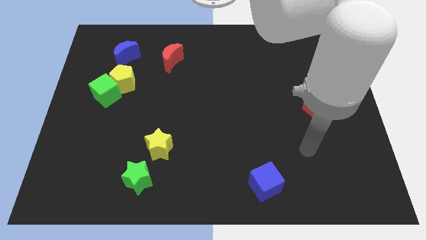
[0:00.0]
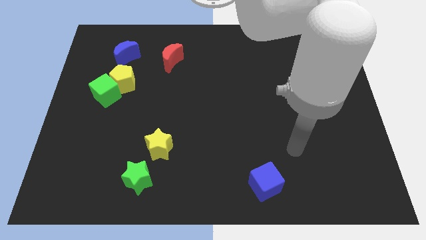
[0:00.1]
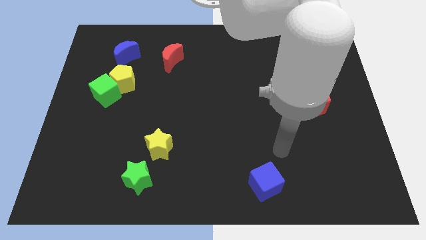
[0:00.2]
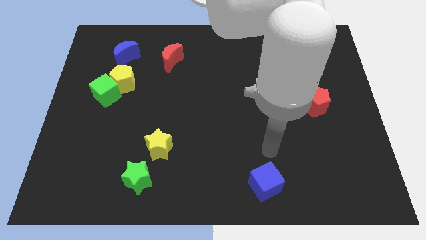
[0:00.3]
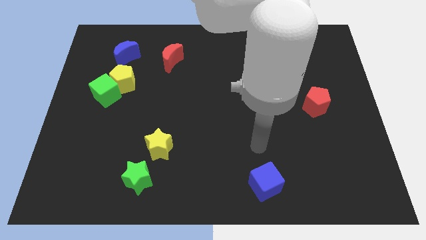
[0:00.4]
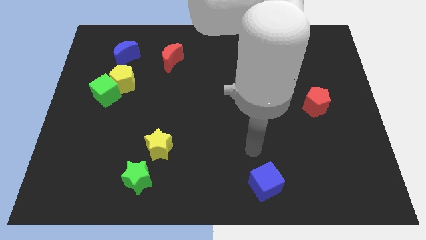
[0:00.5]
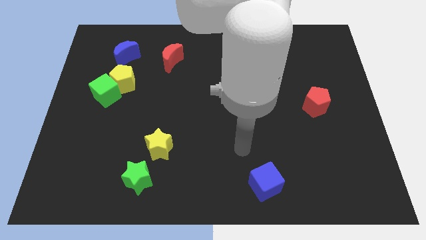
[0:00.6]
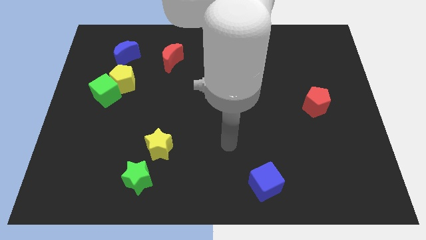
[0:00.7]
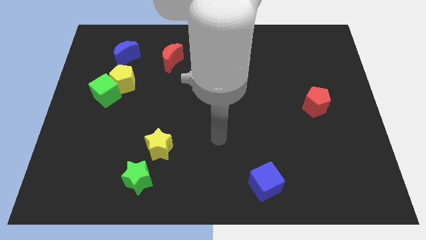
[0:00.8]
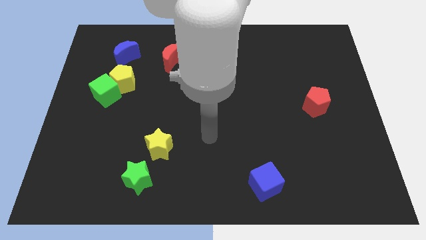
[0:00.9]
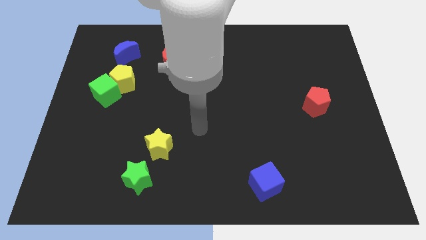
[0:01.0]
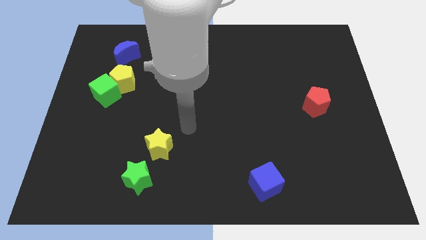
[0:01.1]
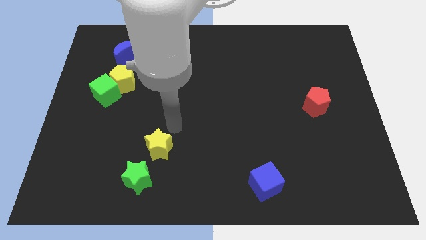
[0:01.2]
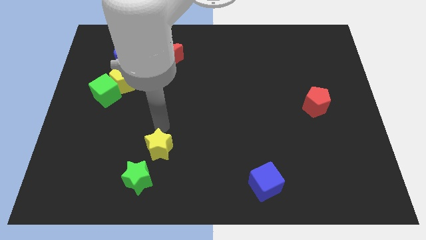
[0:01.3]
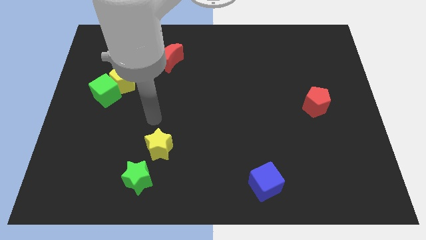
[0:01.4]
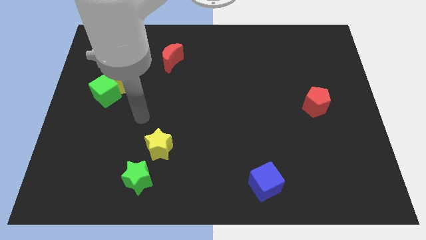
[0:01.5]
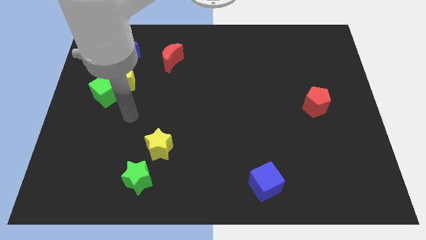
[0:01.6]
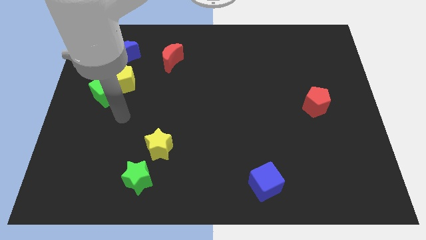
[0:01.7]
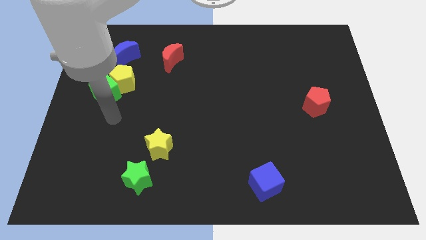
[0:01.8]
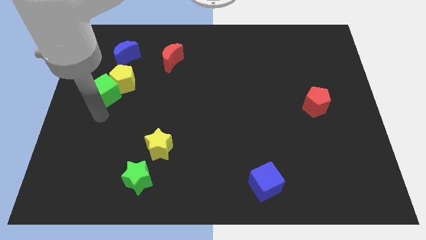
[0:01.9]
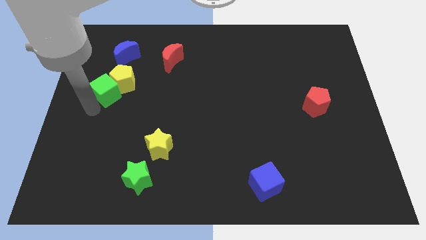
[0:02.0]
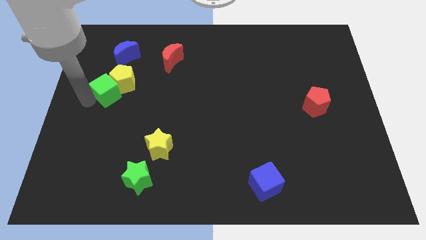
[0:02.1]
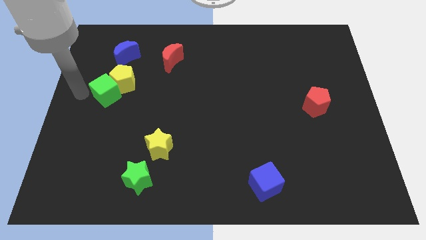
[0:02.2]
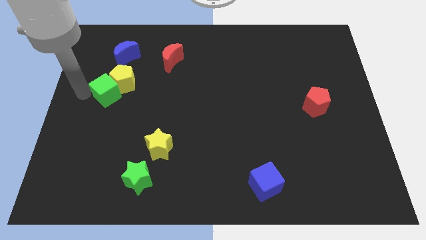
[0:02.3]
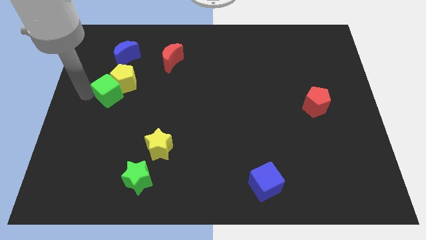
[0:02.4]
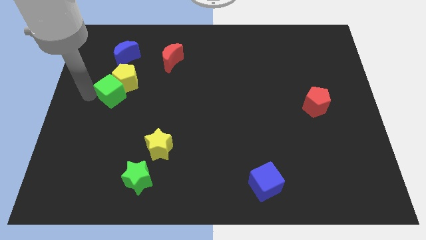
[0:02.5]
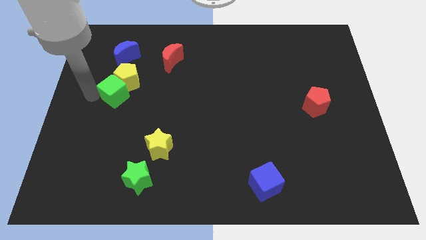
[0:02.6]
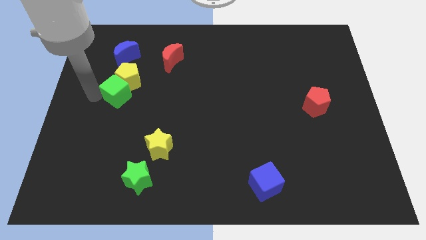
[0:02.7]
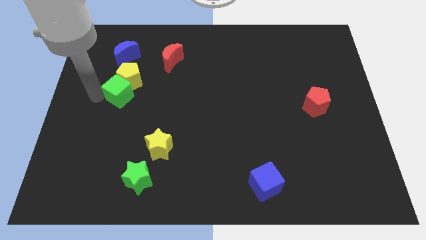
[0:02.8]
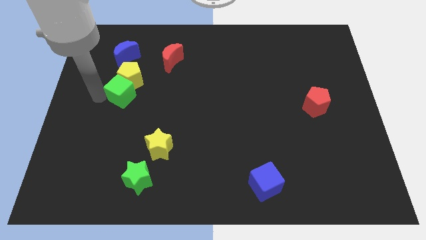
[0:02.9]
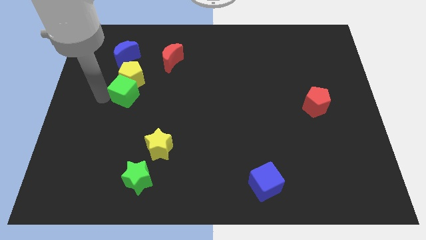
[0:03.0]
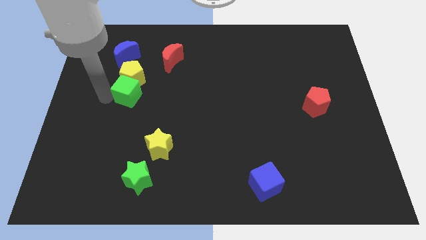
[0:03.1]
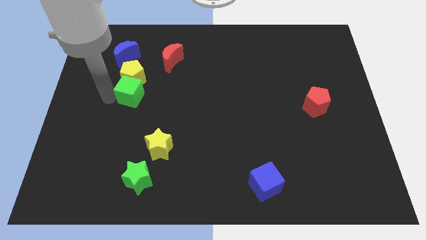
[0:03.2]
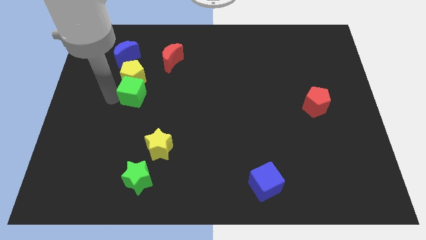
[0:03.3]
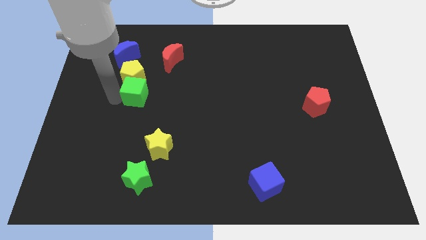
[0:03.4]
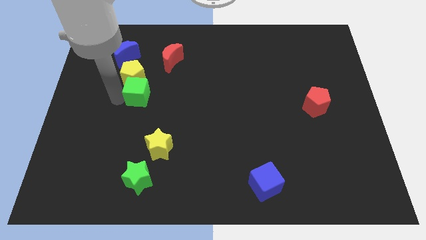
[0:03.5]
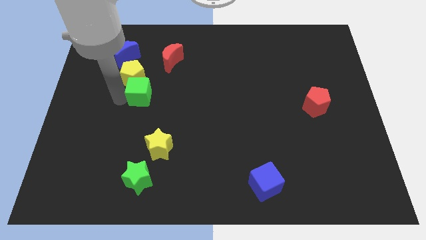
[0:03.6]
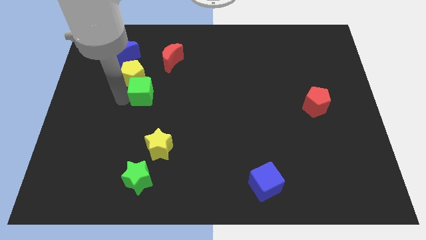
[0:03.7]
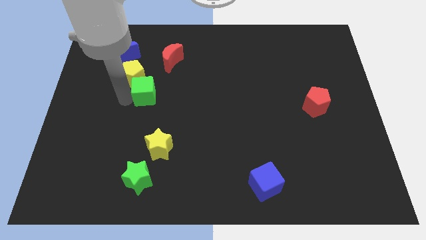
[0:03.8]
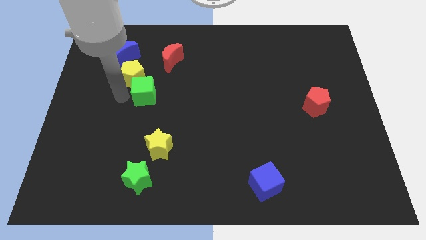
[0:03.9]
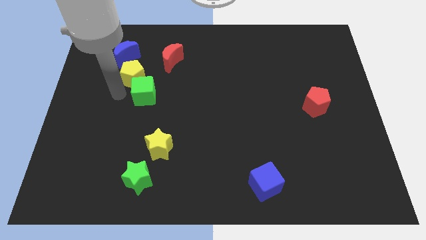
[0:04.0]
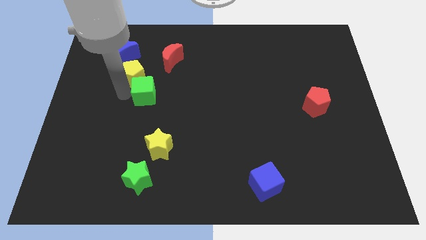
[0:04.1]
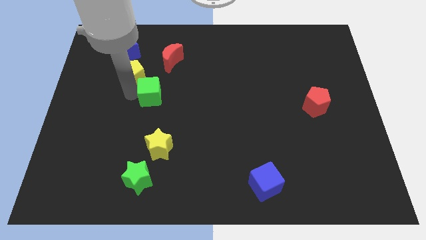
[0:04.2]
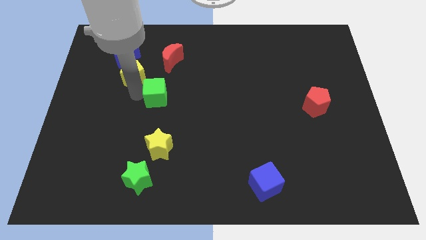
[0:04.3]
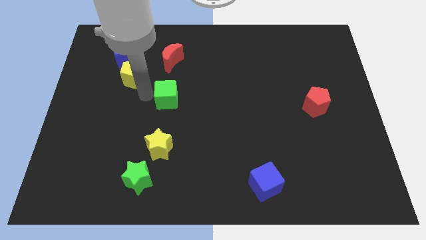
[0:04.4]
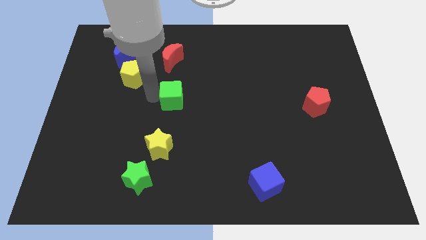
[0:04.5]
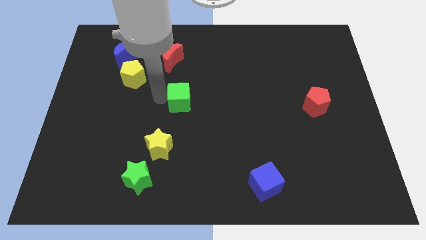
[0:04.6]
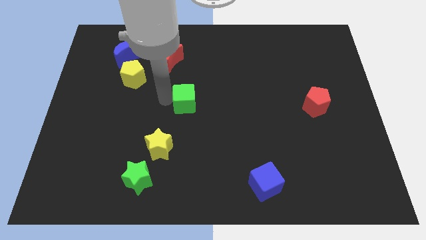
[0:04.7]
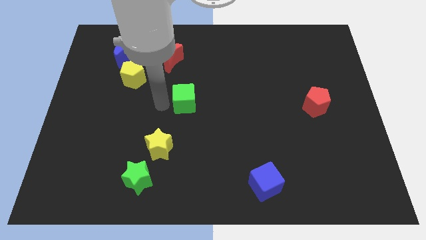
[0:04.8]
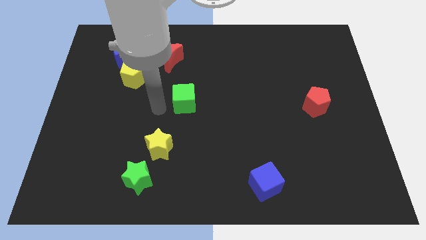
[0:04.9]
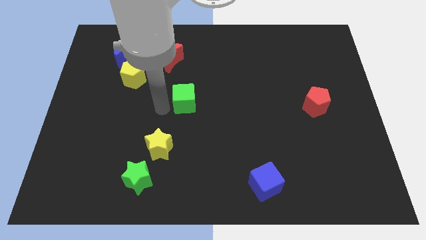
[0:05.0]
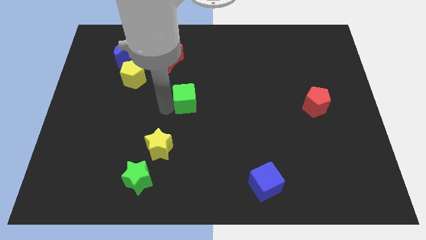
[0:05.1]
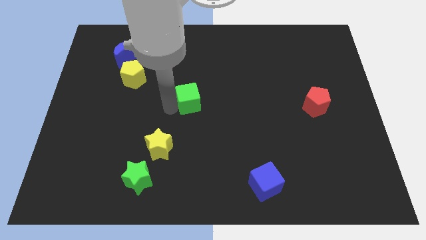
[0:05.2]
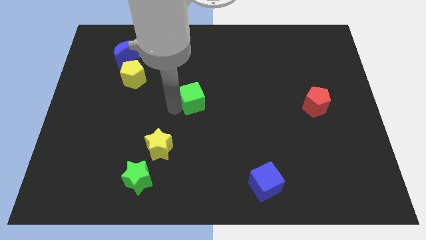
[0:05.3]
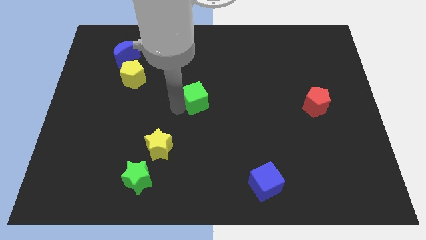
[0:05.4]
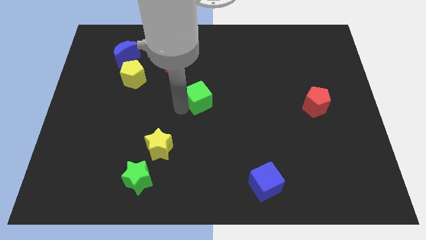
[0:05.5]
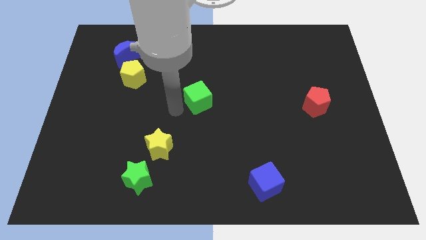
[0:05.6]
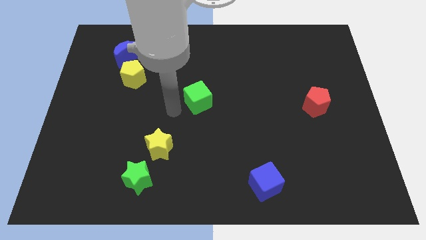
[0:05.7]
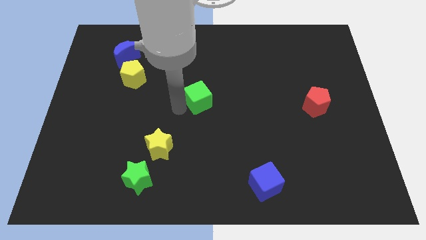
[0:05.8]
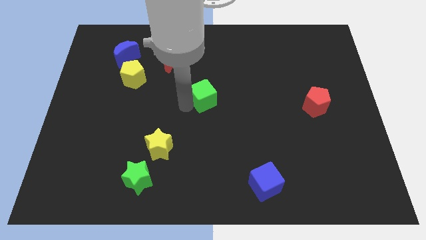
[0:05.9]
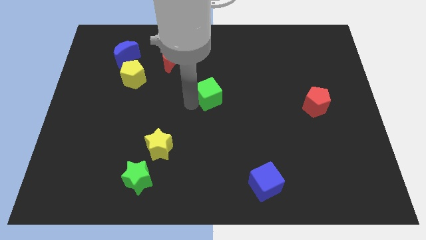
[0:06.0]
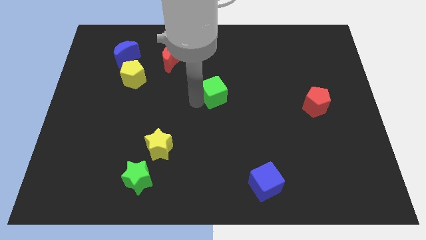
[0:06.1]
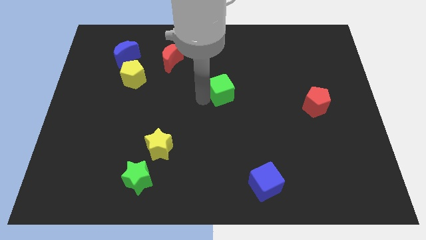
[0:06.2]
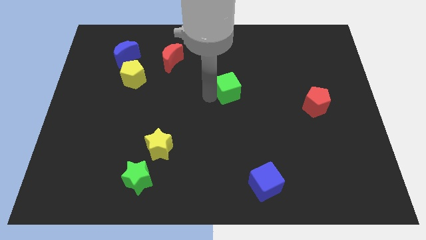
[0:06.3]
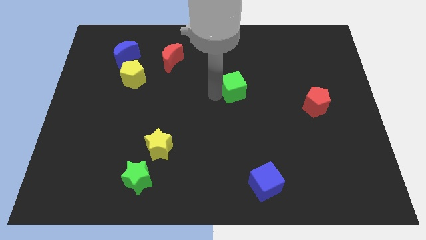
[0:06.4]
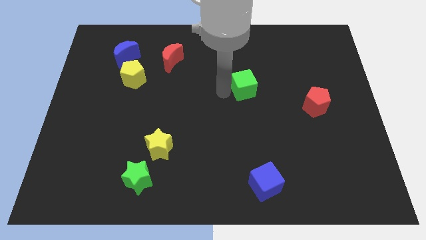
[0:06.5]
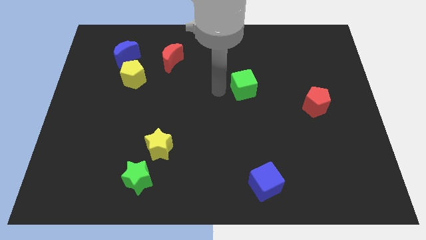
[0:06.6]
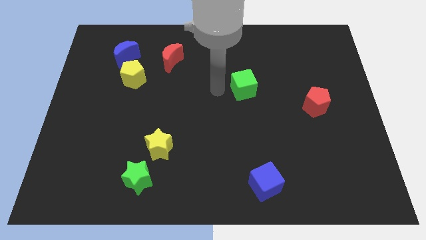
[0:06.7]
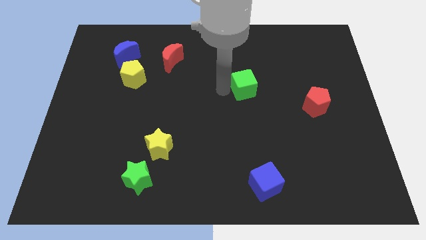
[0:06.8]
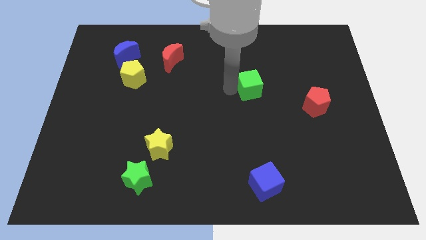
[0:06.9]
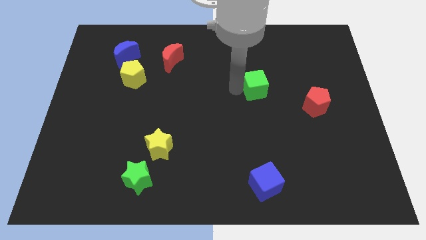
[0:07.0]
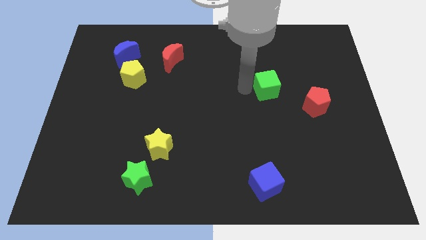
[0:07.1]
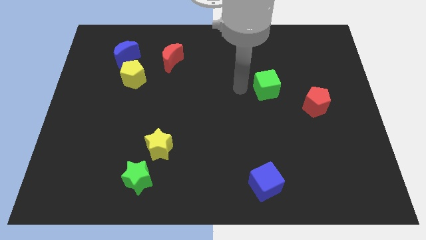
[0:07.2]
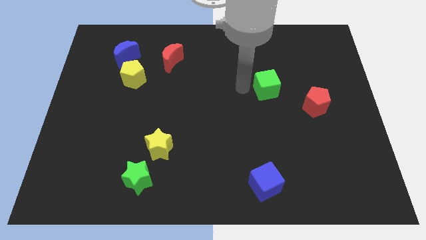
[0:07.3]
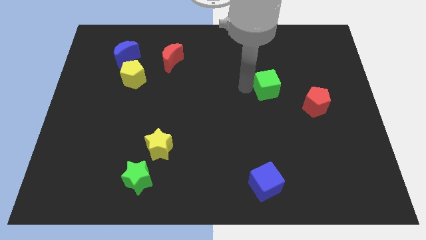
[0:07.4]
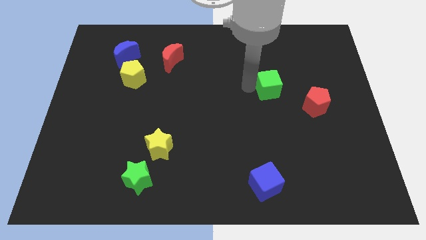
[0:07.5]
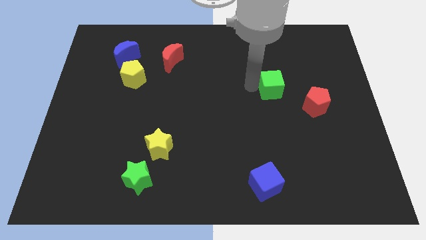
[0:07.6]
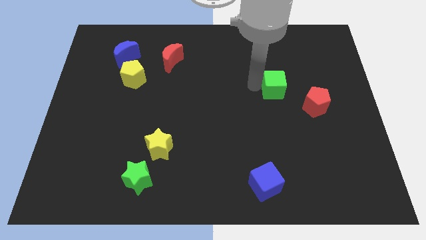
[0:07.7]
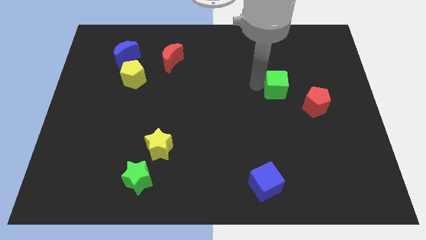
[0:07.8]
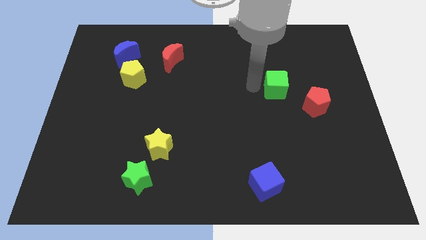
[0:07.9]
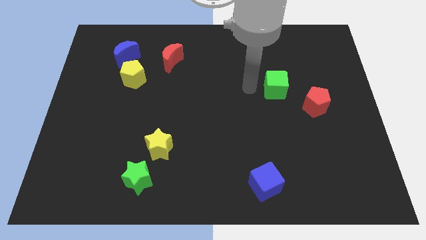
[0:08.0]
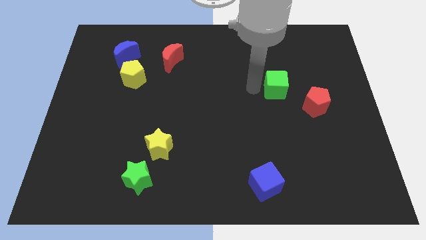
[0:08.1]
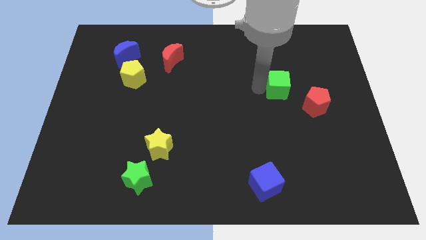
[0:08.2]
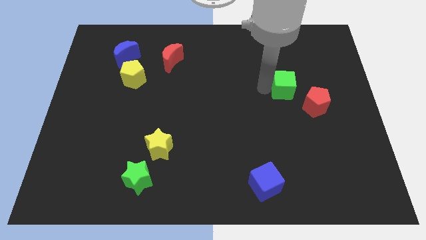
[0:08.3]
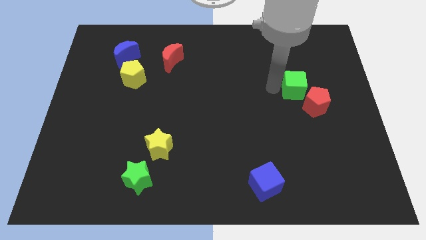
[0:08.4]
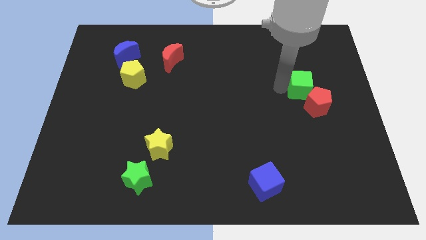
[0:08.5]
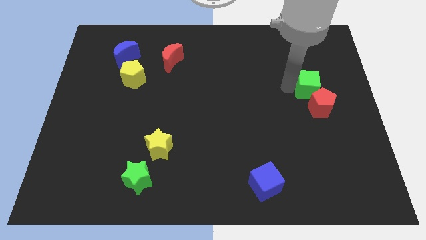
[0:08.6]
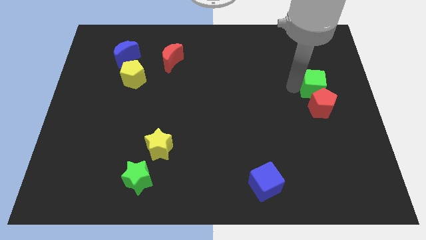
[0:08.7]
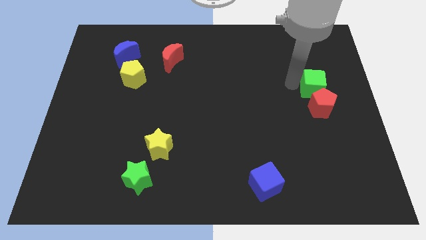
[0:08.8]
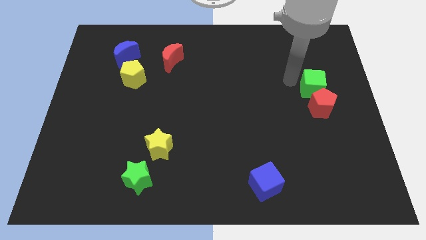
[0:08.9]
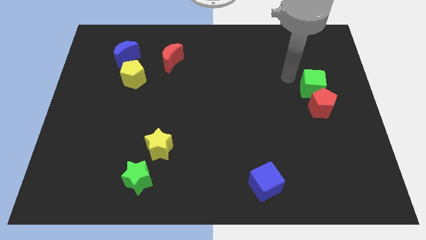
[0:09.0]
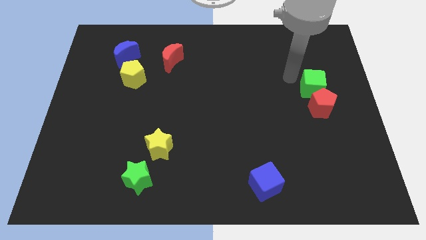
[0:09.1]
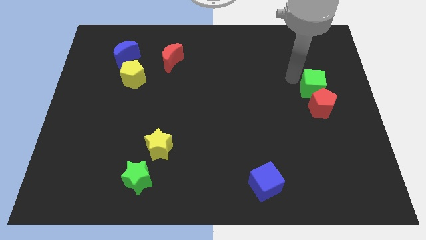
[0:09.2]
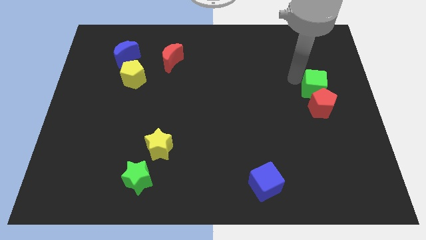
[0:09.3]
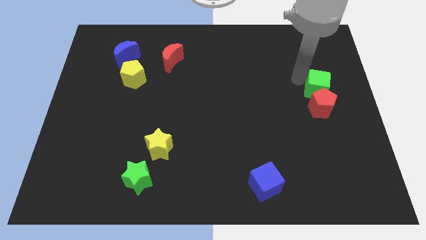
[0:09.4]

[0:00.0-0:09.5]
slide the green cube to the center right
